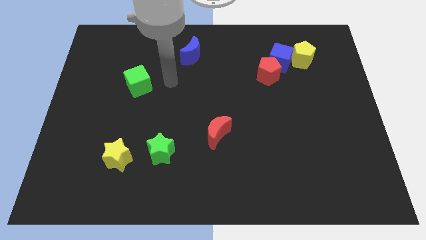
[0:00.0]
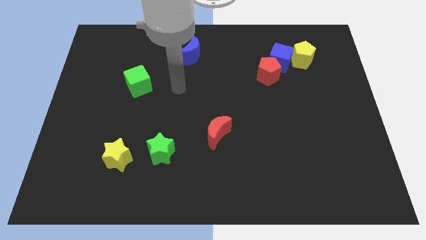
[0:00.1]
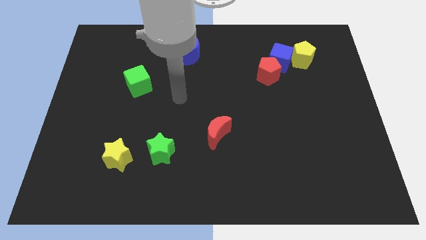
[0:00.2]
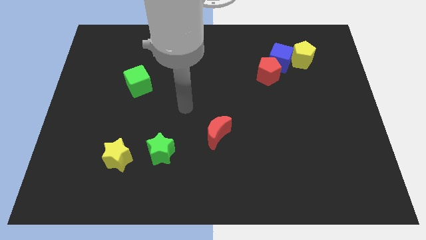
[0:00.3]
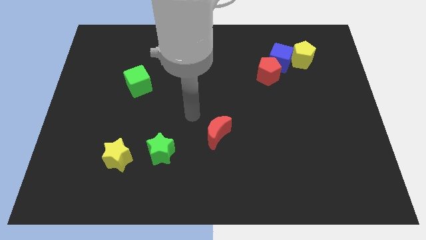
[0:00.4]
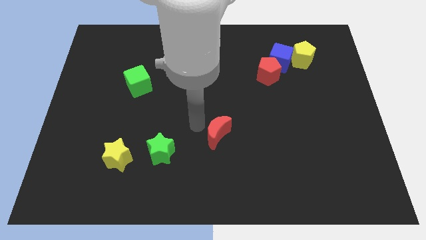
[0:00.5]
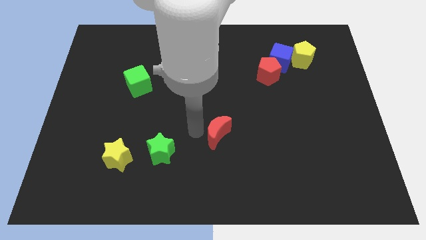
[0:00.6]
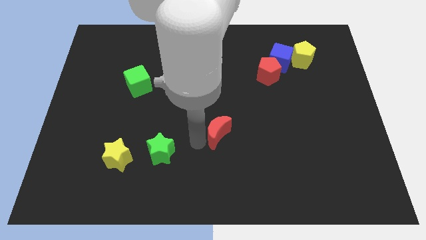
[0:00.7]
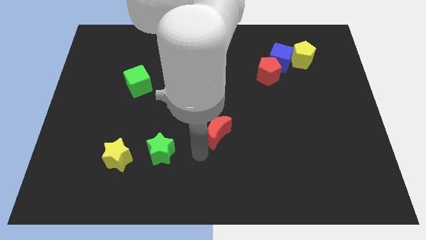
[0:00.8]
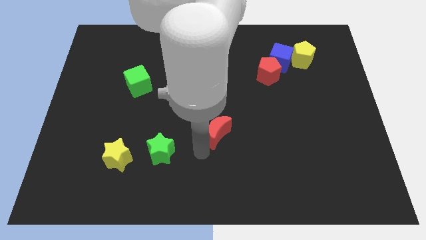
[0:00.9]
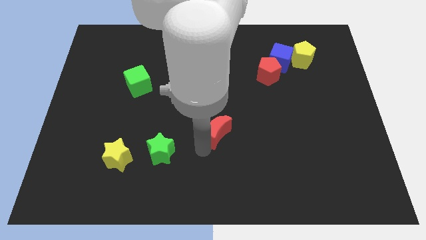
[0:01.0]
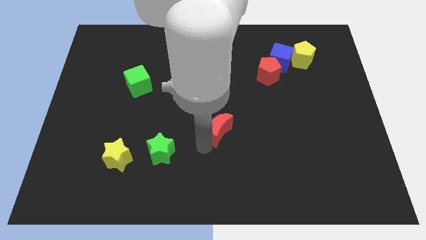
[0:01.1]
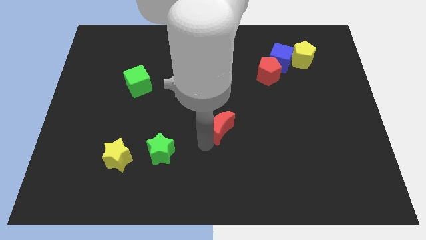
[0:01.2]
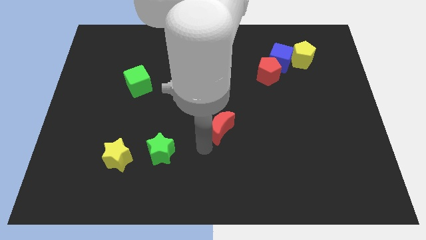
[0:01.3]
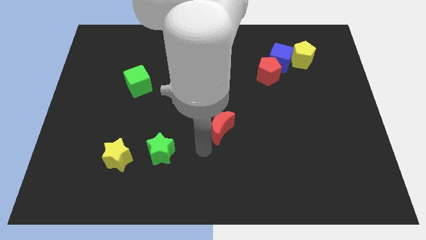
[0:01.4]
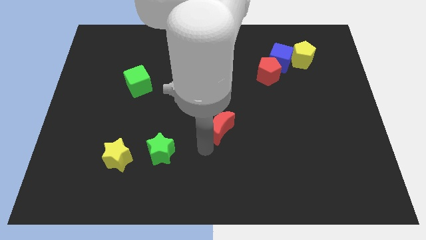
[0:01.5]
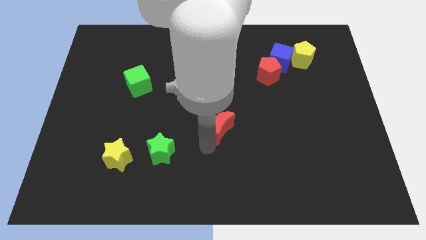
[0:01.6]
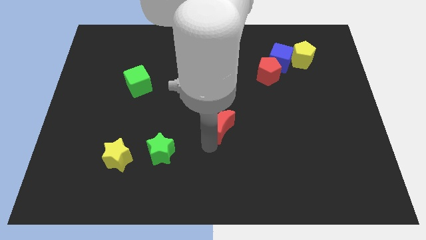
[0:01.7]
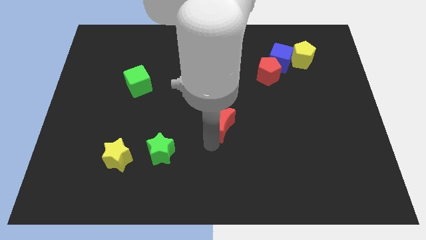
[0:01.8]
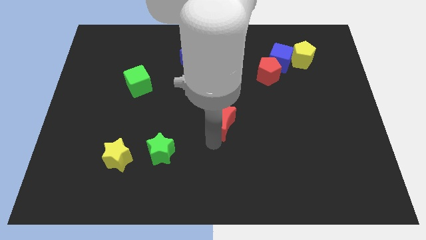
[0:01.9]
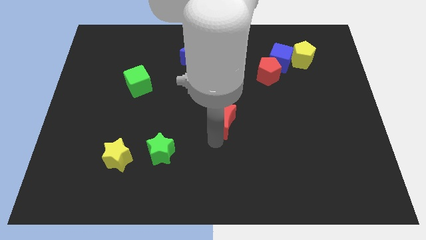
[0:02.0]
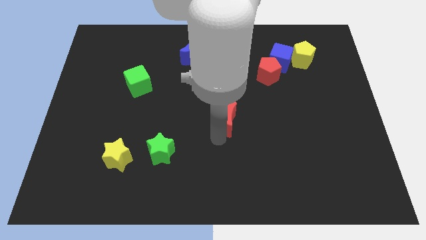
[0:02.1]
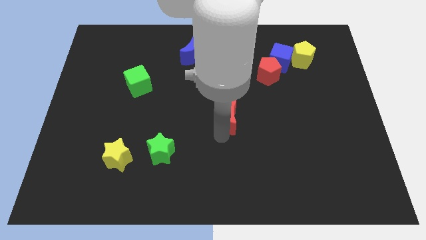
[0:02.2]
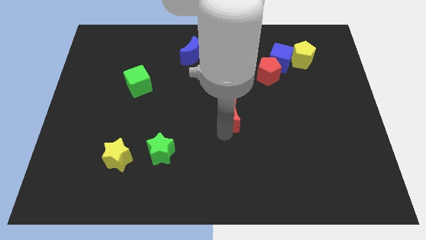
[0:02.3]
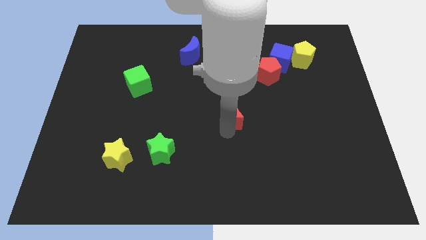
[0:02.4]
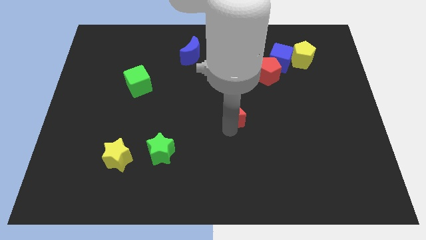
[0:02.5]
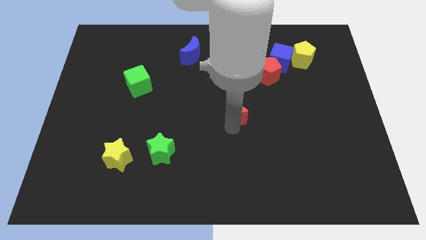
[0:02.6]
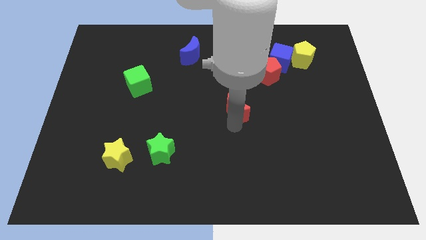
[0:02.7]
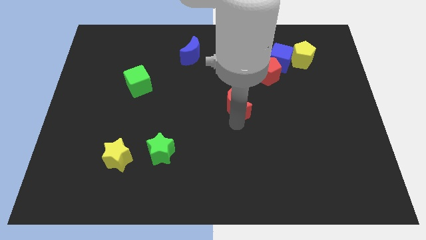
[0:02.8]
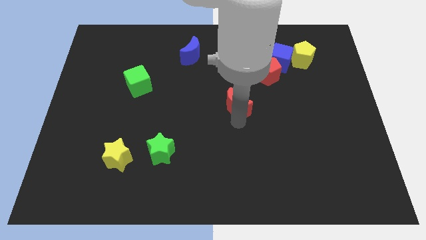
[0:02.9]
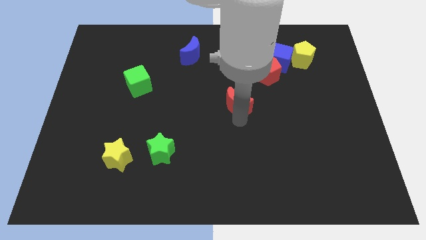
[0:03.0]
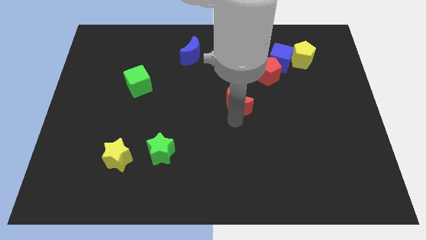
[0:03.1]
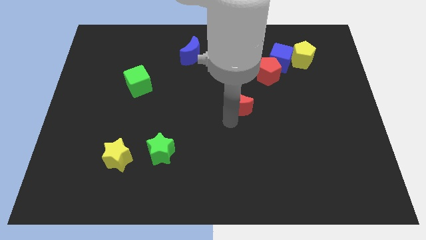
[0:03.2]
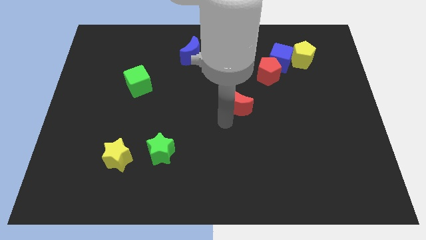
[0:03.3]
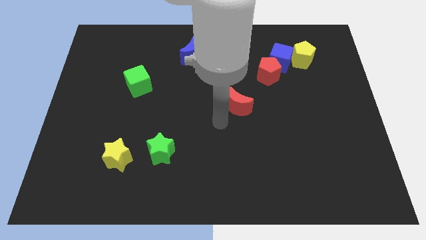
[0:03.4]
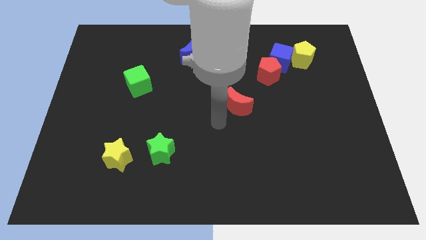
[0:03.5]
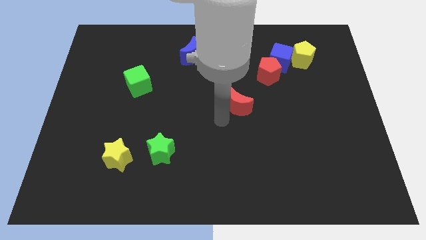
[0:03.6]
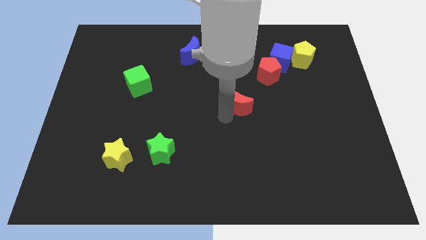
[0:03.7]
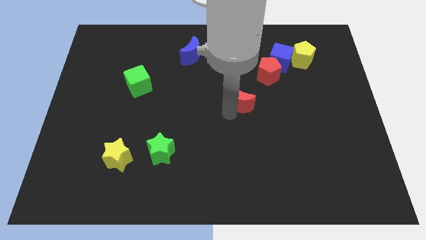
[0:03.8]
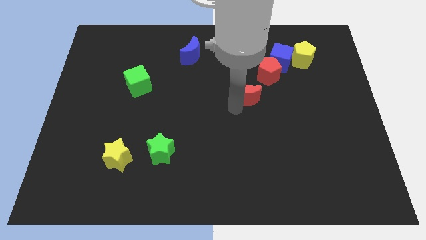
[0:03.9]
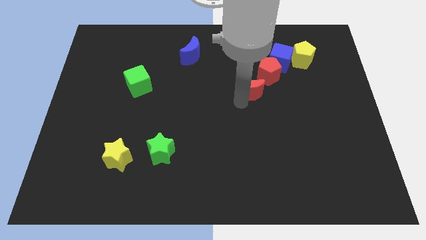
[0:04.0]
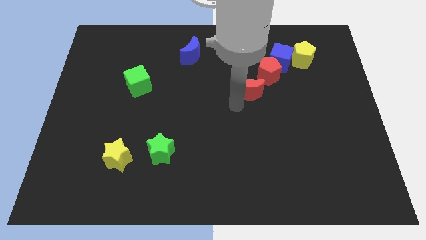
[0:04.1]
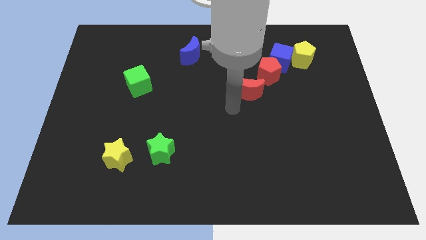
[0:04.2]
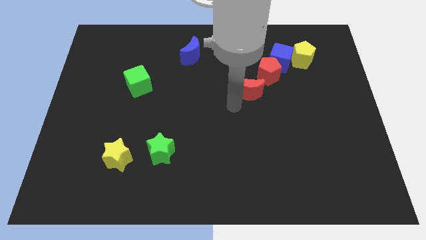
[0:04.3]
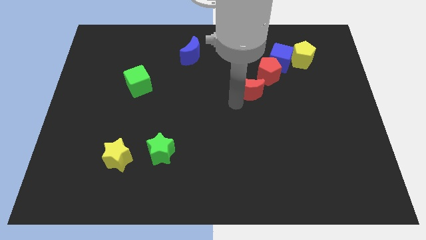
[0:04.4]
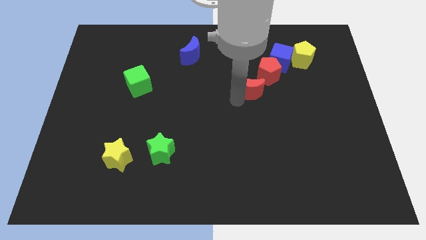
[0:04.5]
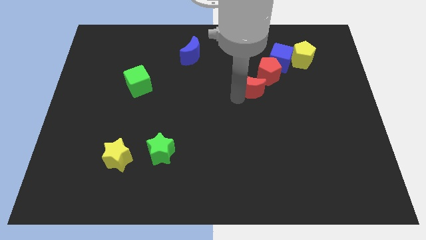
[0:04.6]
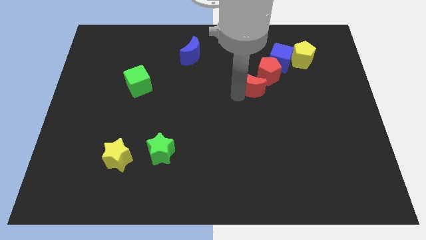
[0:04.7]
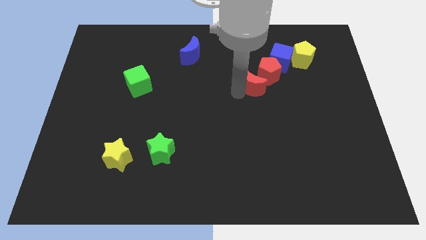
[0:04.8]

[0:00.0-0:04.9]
move the red moon next to the red pentagon

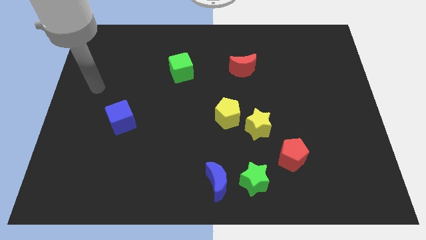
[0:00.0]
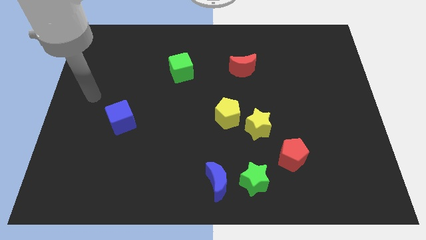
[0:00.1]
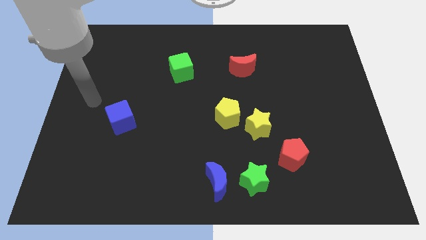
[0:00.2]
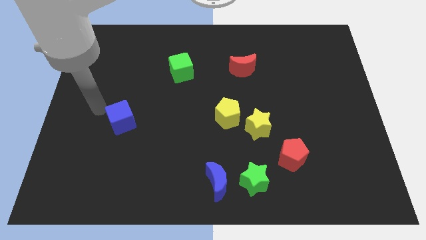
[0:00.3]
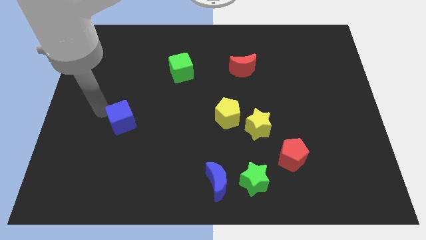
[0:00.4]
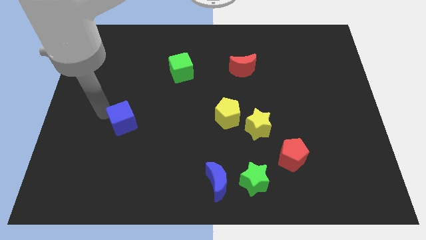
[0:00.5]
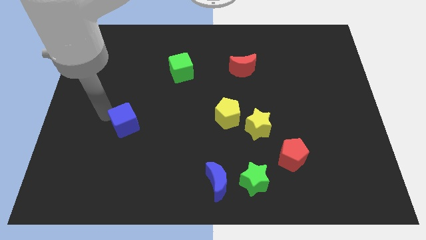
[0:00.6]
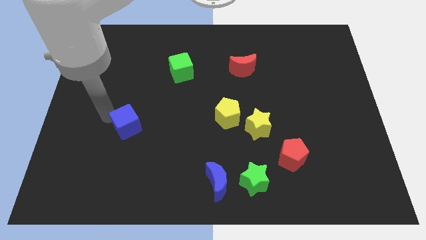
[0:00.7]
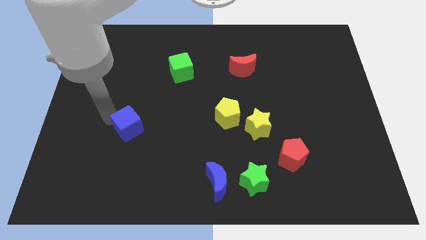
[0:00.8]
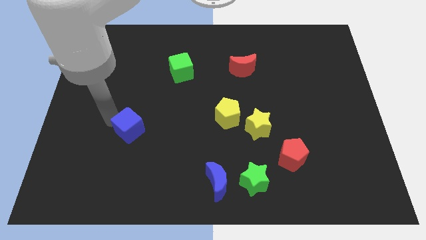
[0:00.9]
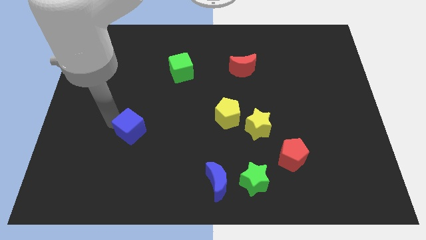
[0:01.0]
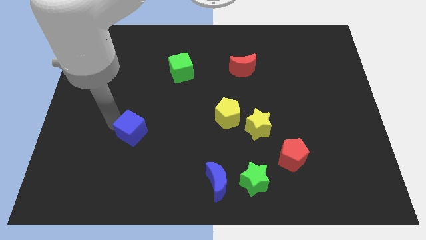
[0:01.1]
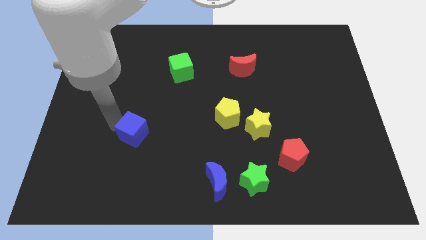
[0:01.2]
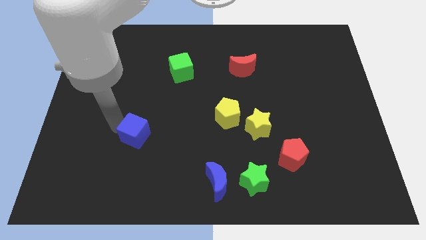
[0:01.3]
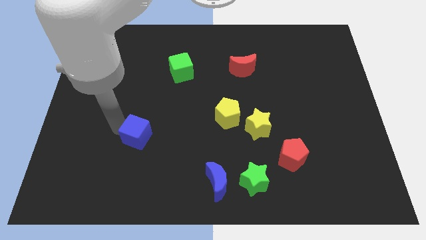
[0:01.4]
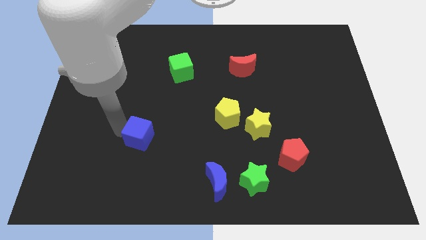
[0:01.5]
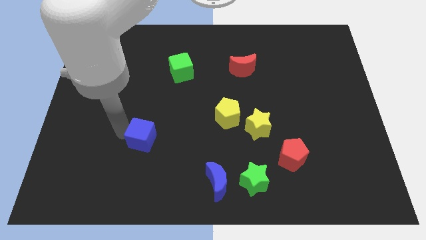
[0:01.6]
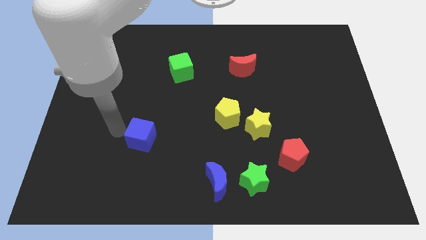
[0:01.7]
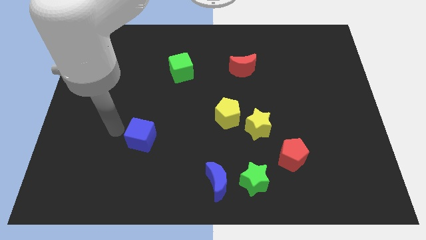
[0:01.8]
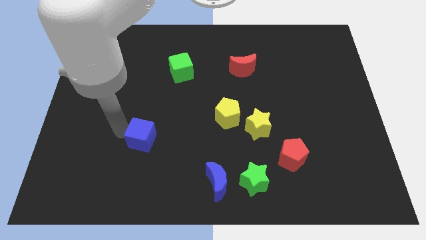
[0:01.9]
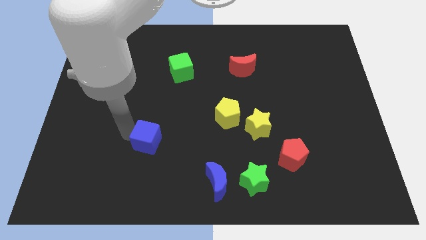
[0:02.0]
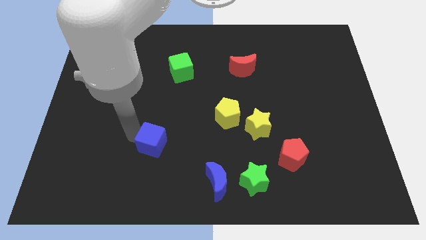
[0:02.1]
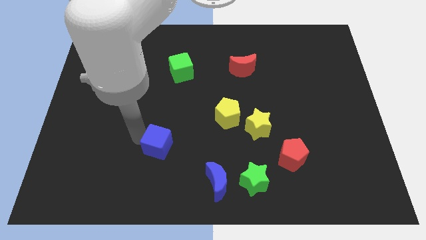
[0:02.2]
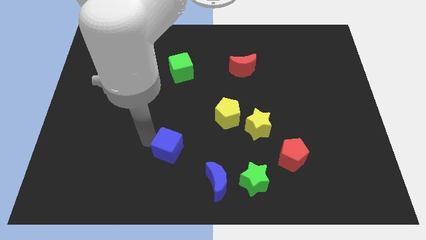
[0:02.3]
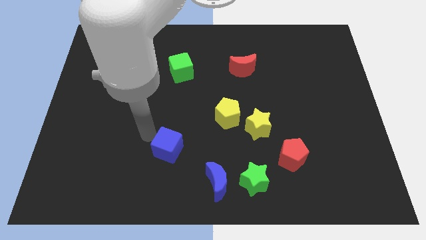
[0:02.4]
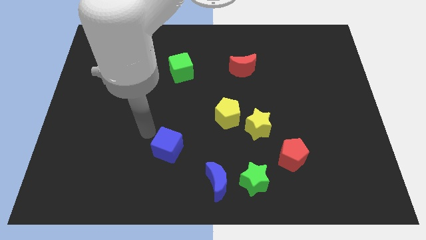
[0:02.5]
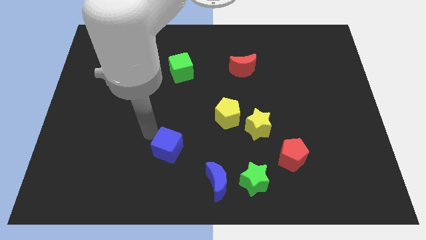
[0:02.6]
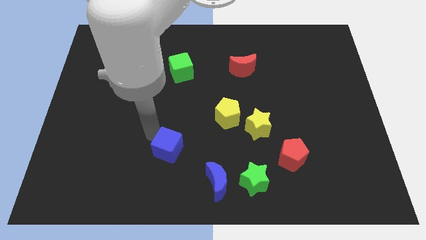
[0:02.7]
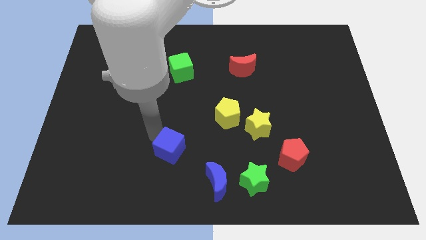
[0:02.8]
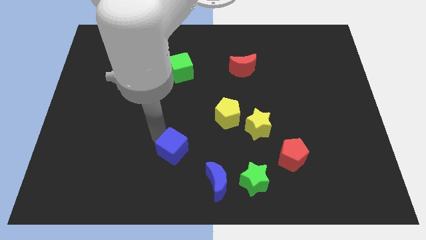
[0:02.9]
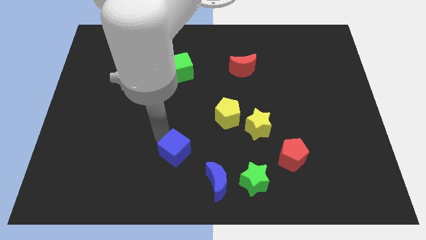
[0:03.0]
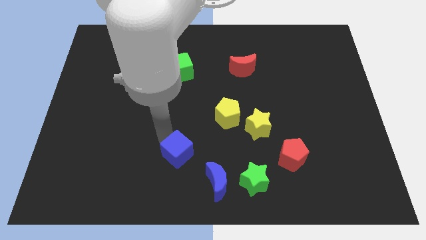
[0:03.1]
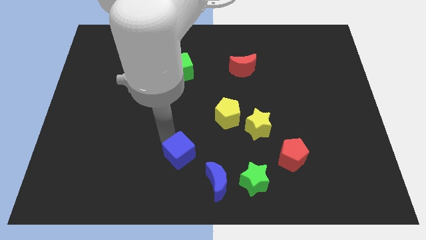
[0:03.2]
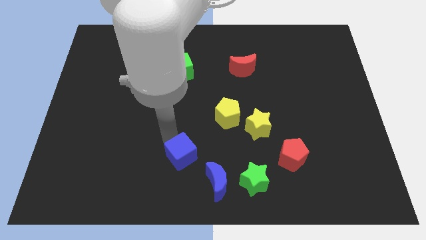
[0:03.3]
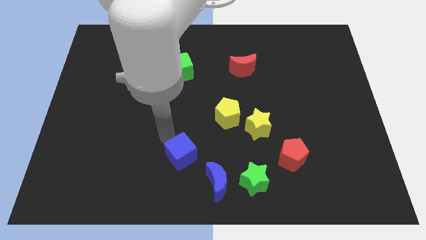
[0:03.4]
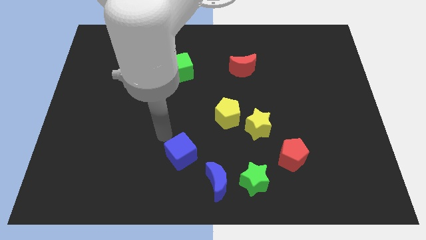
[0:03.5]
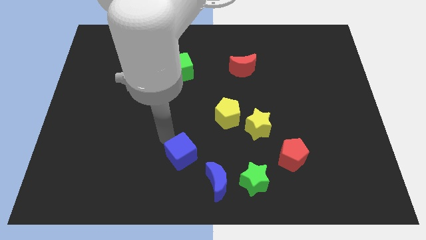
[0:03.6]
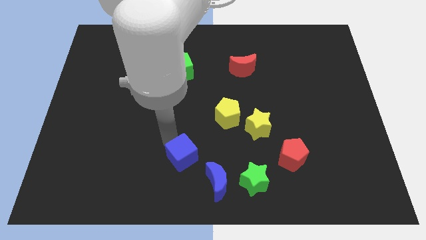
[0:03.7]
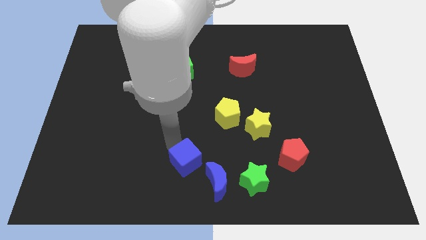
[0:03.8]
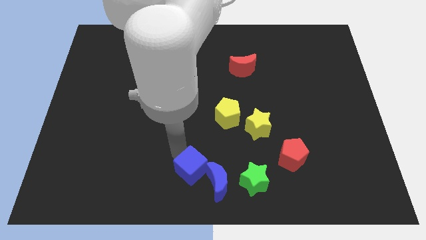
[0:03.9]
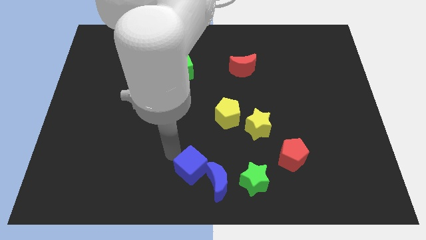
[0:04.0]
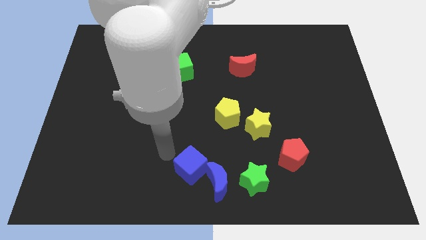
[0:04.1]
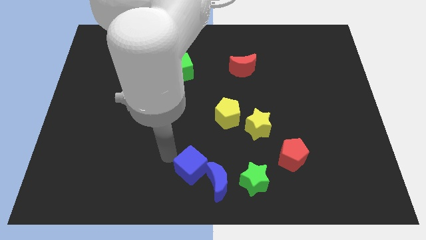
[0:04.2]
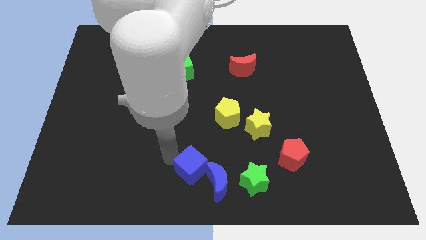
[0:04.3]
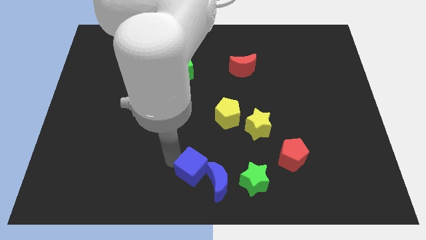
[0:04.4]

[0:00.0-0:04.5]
move the blue cube next to the blue moon
